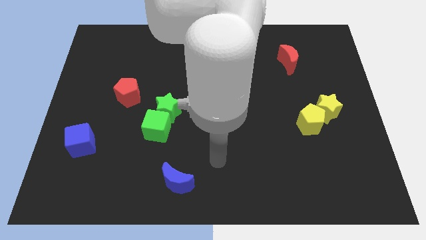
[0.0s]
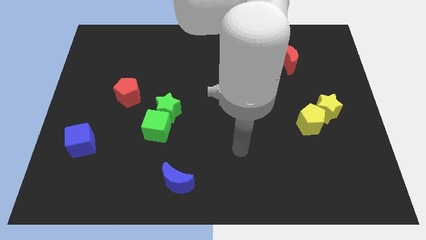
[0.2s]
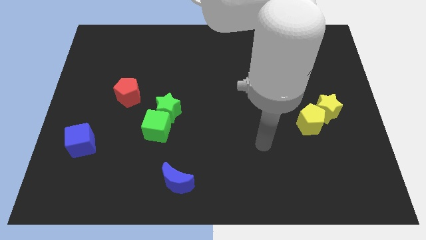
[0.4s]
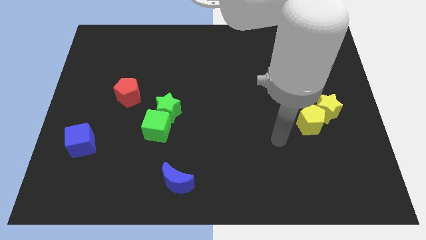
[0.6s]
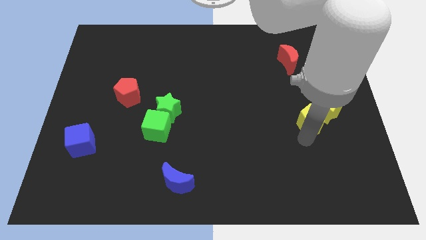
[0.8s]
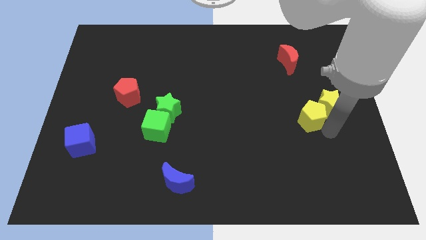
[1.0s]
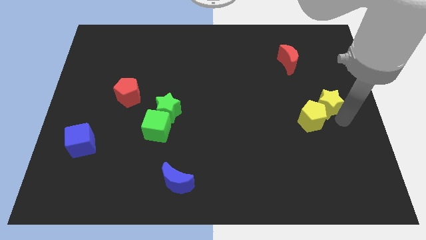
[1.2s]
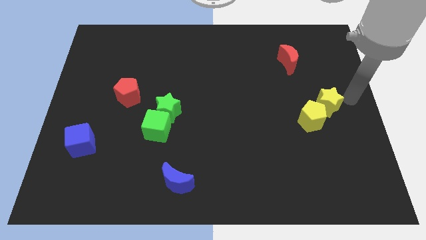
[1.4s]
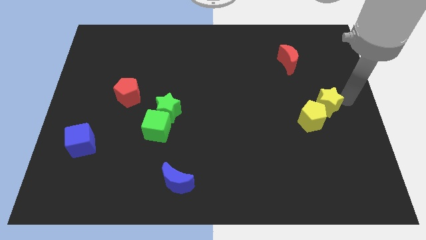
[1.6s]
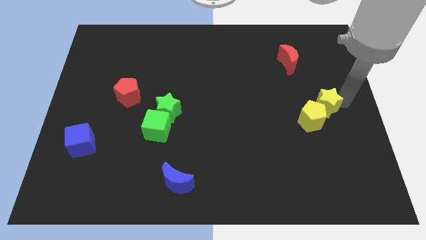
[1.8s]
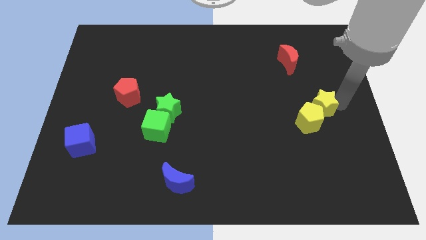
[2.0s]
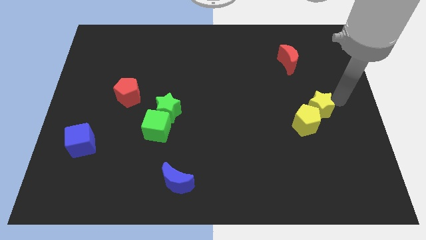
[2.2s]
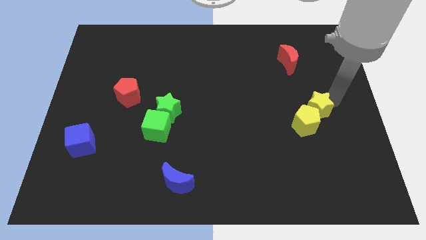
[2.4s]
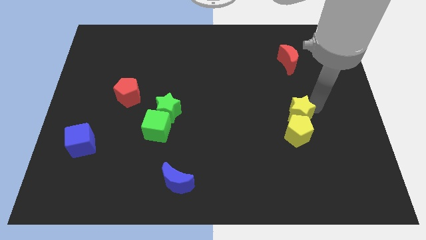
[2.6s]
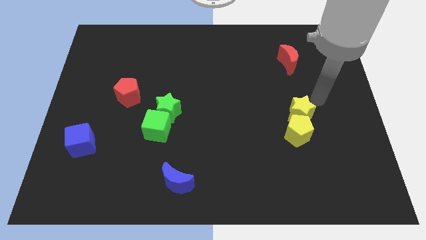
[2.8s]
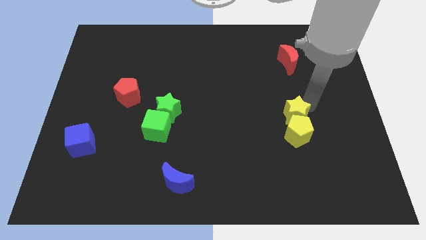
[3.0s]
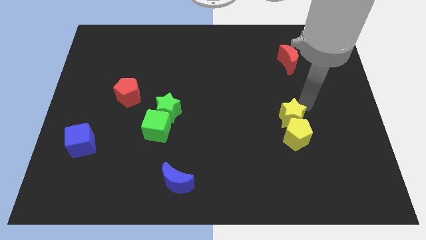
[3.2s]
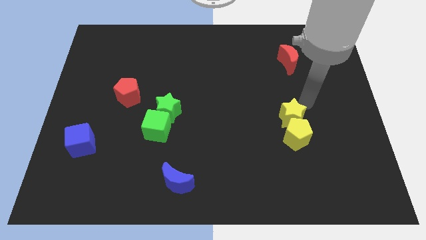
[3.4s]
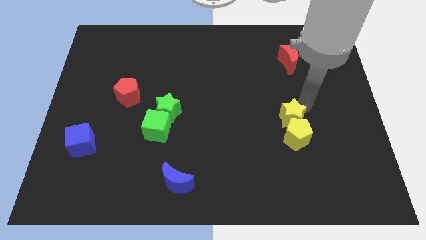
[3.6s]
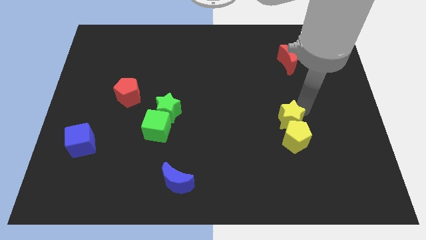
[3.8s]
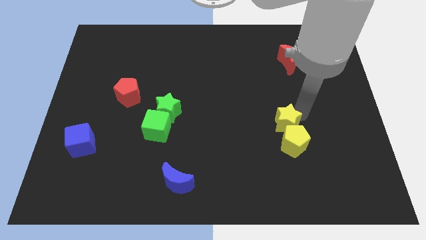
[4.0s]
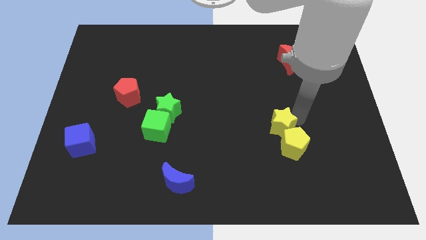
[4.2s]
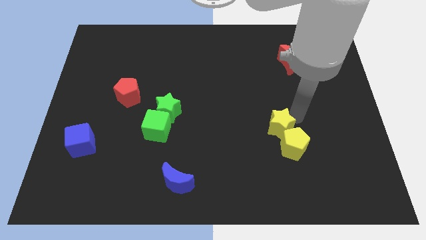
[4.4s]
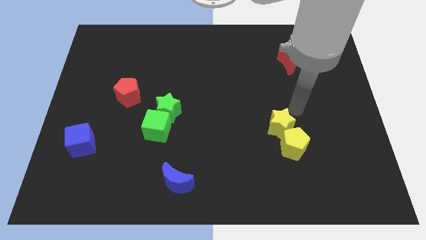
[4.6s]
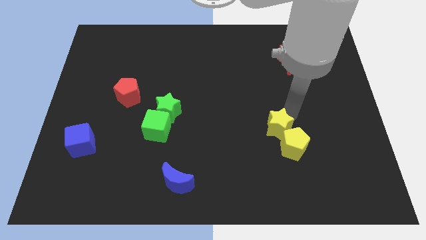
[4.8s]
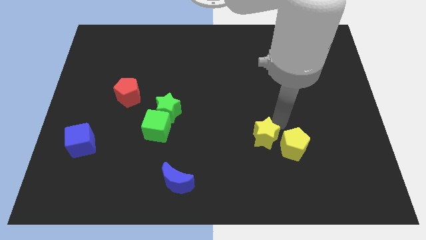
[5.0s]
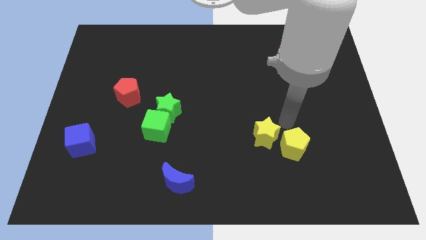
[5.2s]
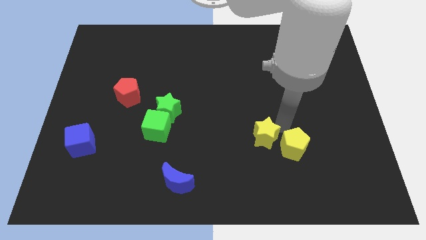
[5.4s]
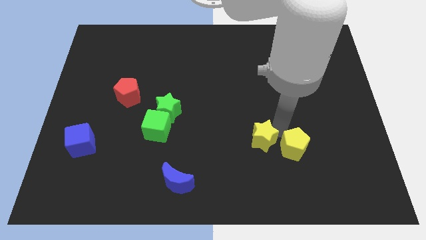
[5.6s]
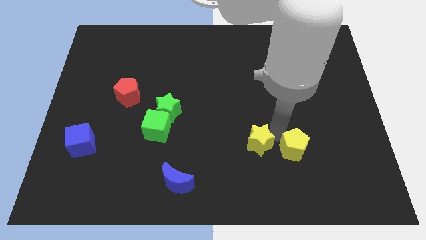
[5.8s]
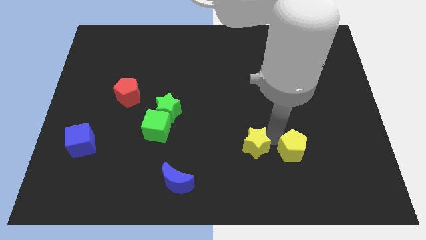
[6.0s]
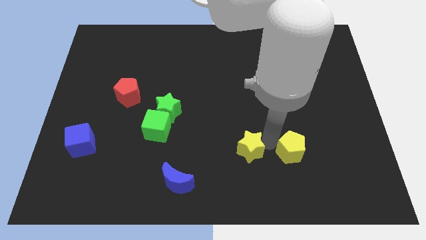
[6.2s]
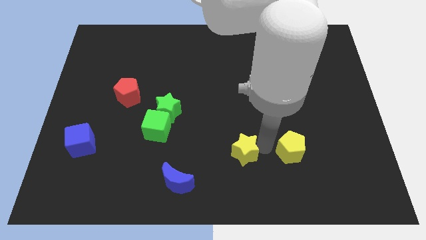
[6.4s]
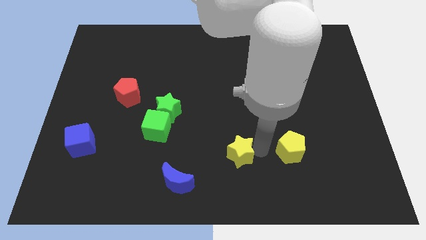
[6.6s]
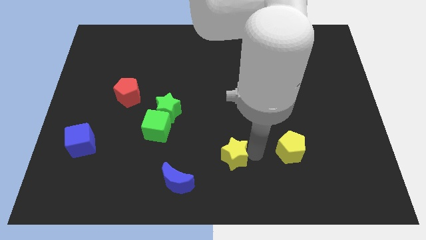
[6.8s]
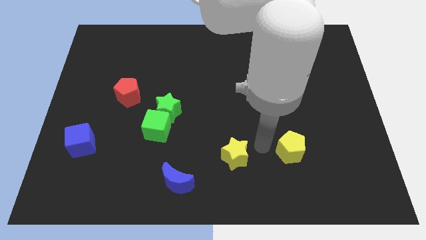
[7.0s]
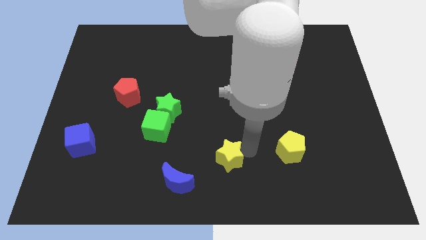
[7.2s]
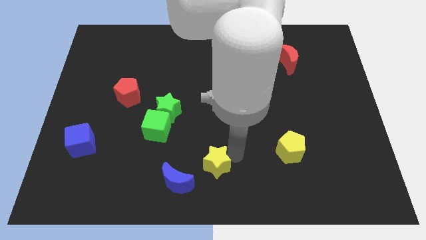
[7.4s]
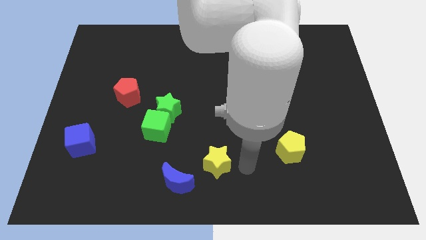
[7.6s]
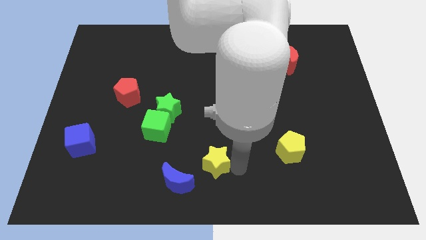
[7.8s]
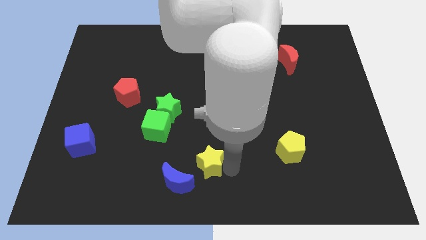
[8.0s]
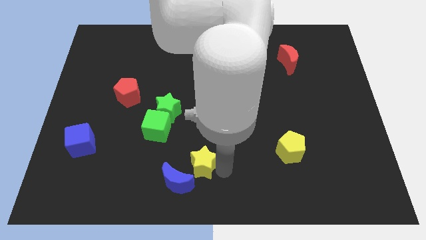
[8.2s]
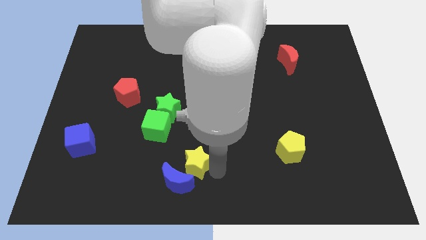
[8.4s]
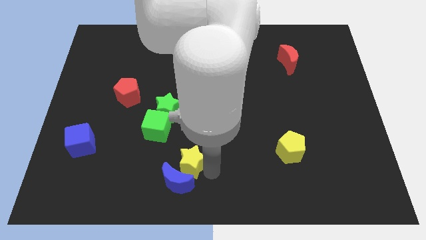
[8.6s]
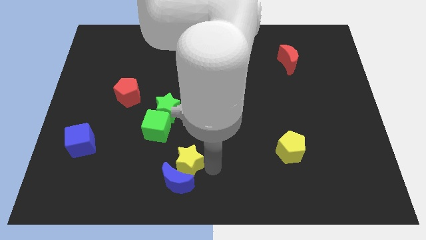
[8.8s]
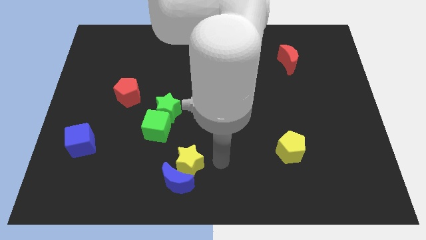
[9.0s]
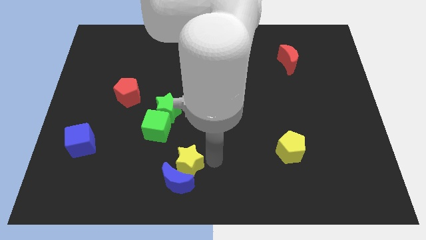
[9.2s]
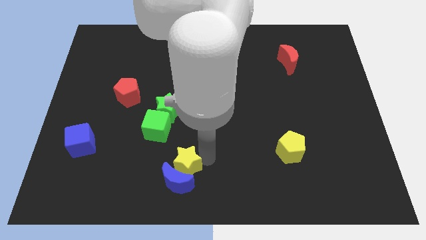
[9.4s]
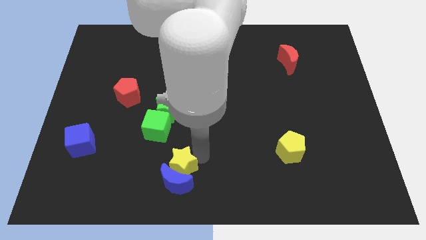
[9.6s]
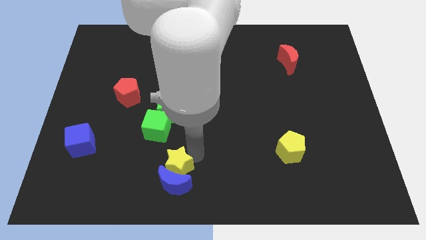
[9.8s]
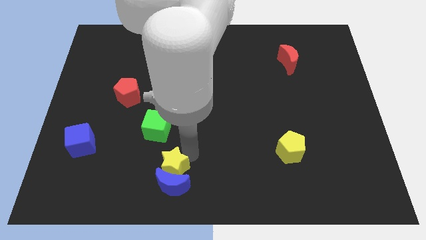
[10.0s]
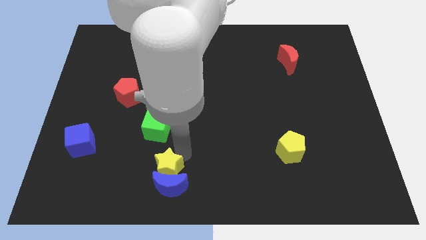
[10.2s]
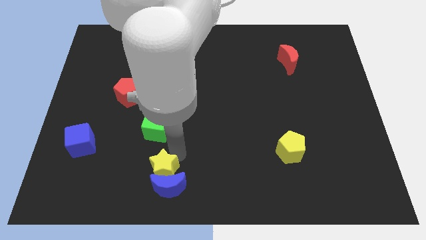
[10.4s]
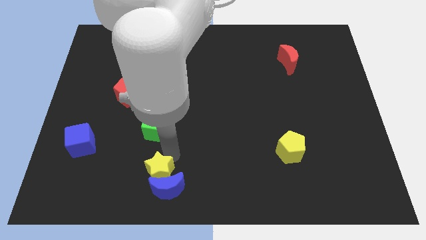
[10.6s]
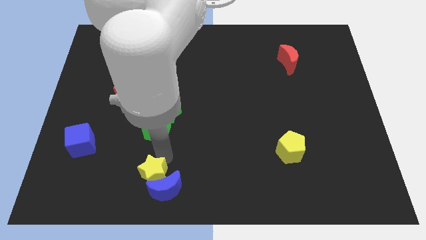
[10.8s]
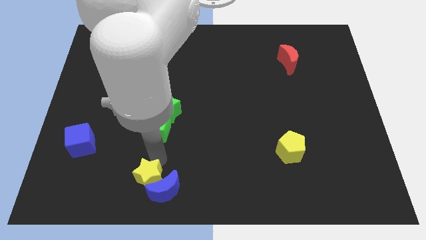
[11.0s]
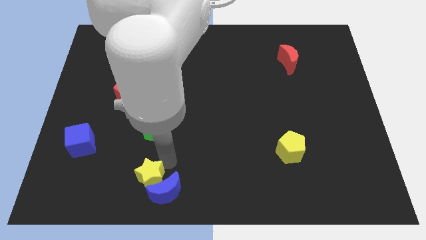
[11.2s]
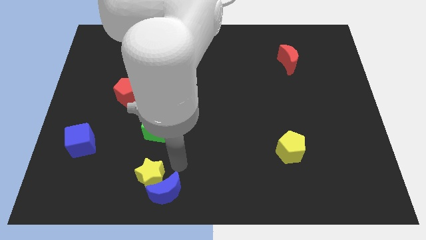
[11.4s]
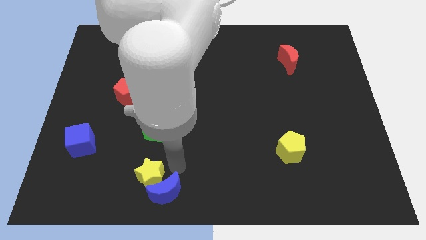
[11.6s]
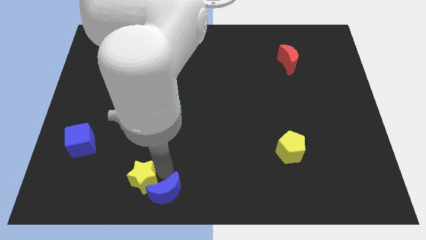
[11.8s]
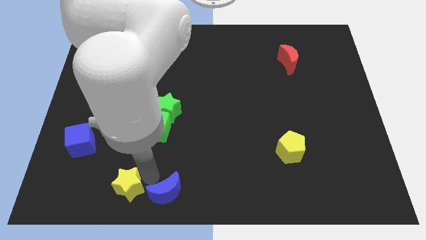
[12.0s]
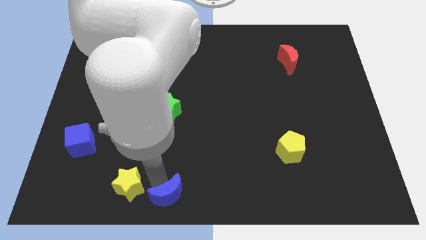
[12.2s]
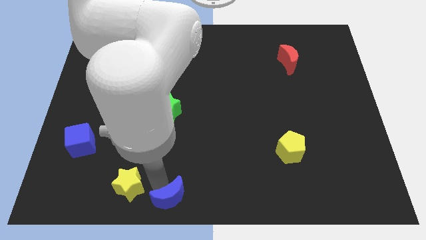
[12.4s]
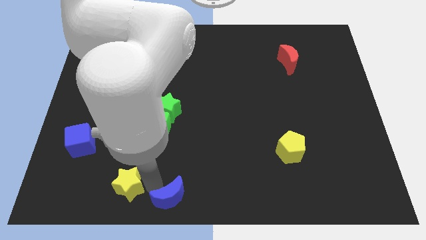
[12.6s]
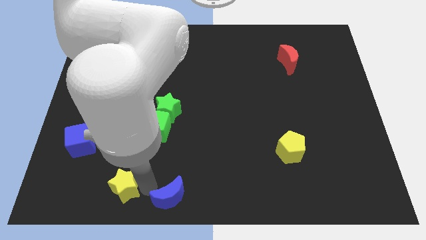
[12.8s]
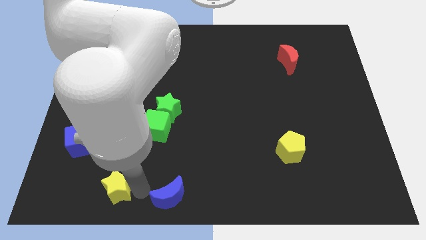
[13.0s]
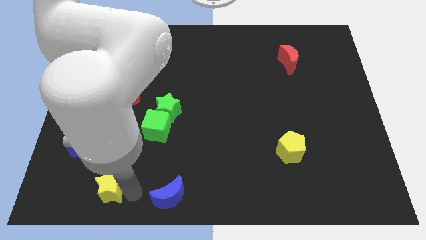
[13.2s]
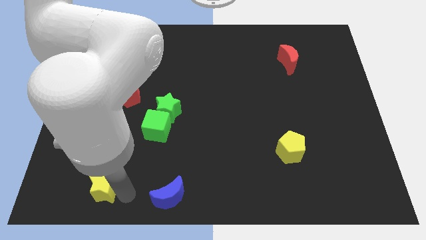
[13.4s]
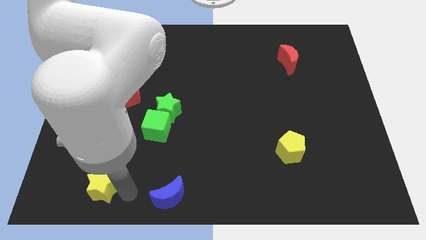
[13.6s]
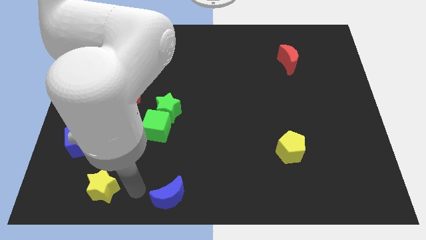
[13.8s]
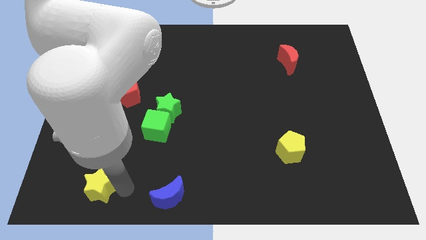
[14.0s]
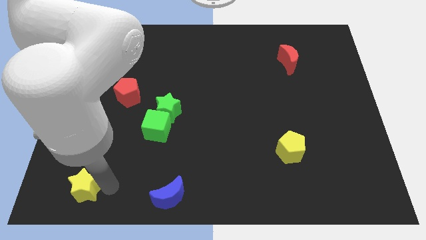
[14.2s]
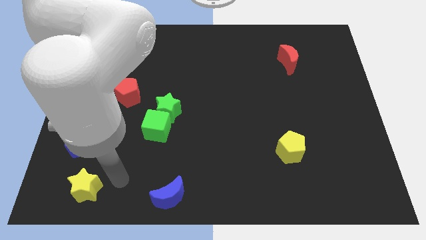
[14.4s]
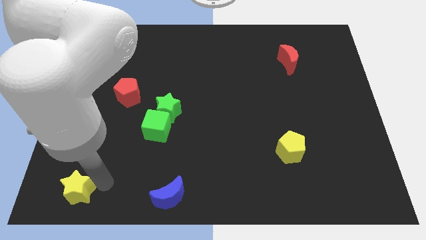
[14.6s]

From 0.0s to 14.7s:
slide the yellow star to the lower left corner

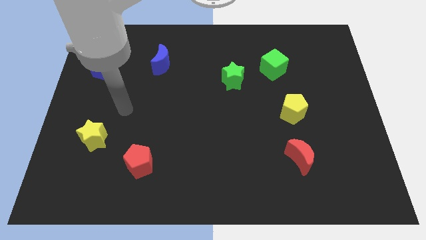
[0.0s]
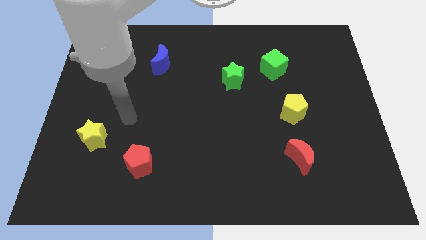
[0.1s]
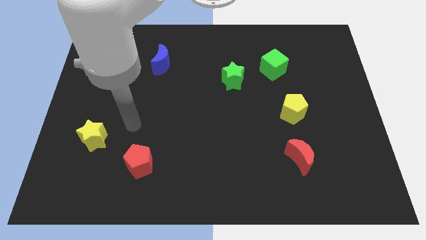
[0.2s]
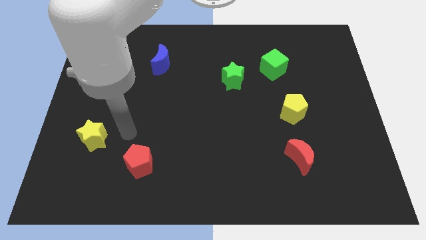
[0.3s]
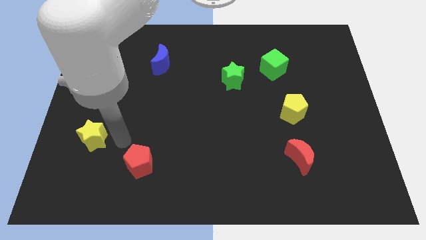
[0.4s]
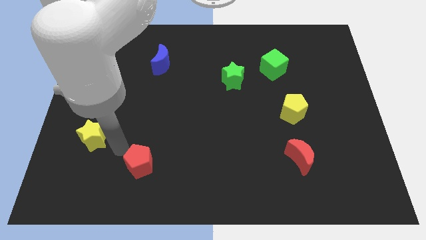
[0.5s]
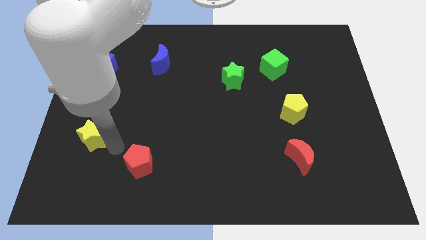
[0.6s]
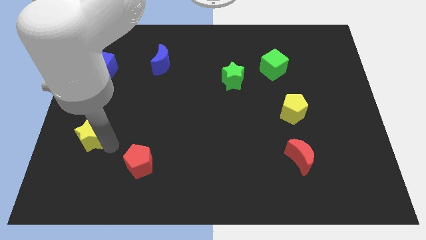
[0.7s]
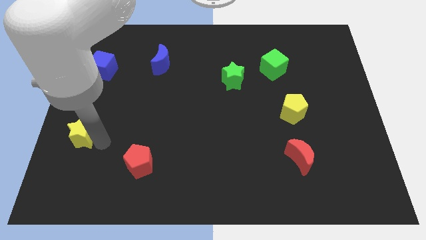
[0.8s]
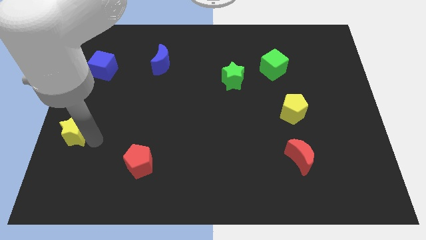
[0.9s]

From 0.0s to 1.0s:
push the yellow star to the left side
